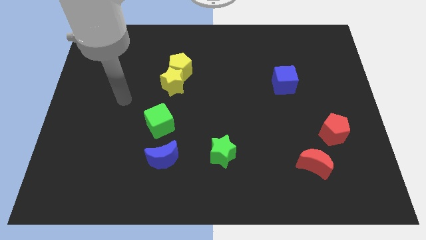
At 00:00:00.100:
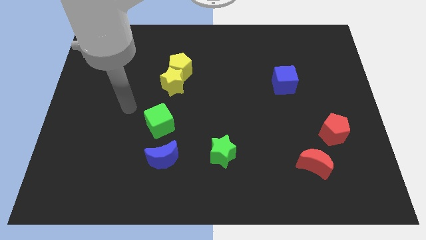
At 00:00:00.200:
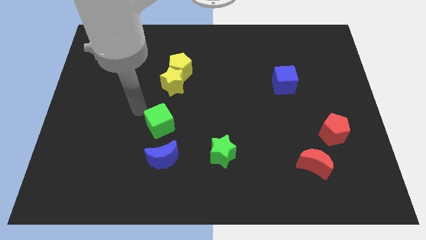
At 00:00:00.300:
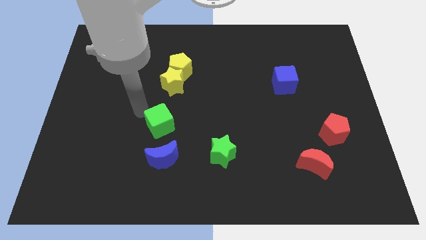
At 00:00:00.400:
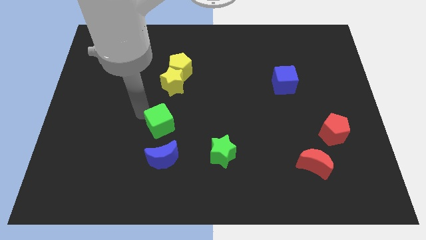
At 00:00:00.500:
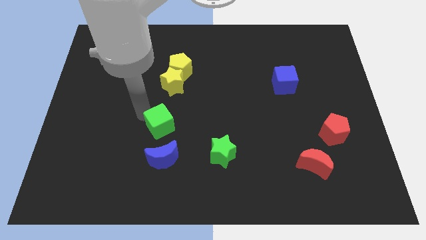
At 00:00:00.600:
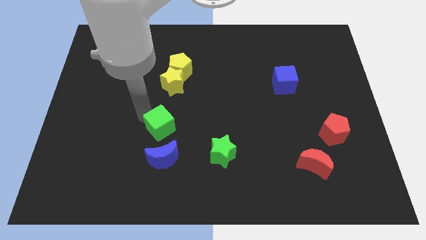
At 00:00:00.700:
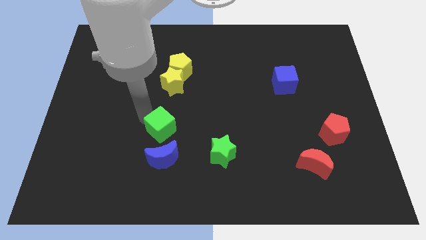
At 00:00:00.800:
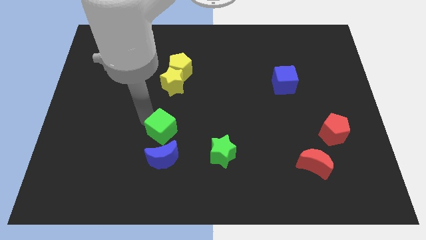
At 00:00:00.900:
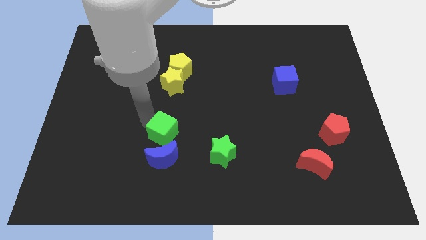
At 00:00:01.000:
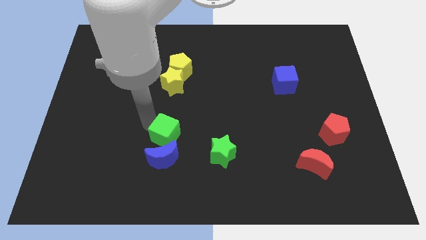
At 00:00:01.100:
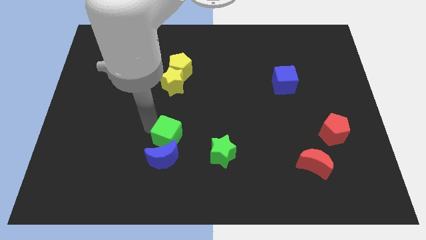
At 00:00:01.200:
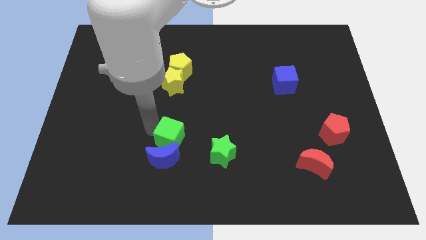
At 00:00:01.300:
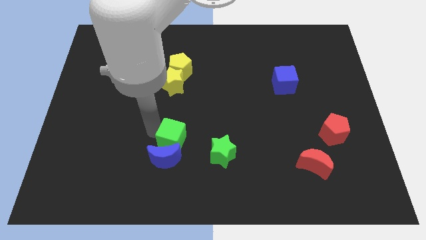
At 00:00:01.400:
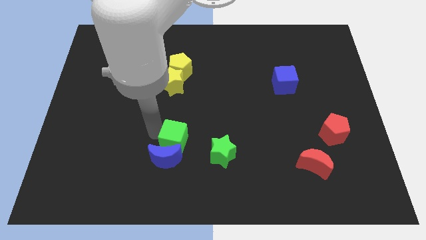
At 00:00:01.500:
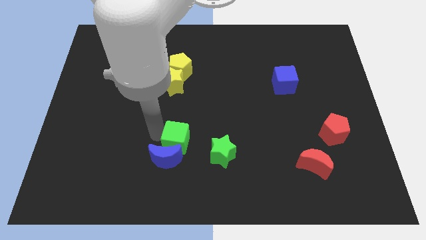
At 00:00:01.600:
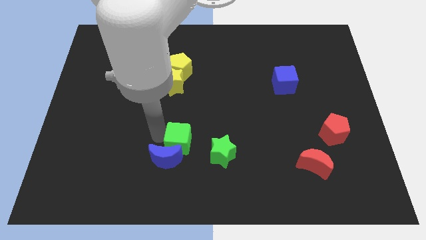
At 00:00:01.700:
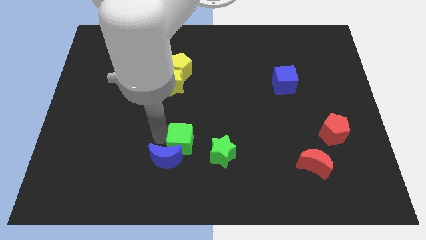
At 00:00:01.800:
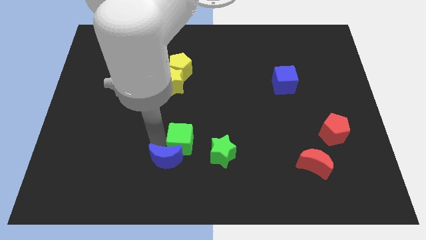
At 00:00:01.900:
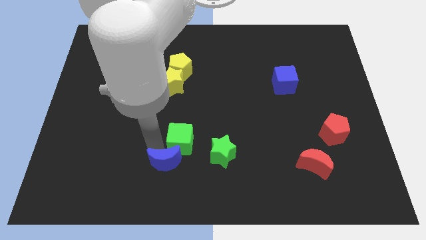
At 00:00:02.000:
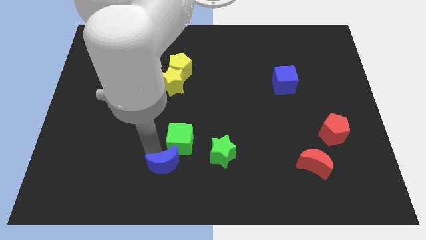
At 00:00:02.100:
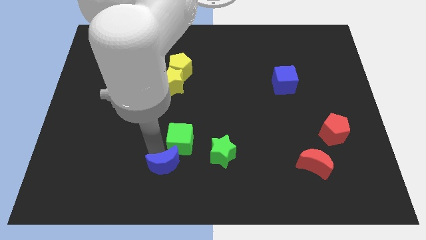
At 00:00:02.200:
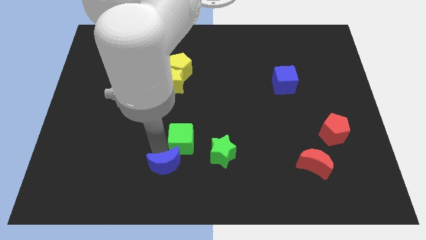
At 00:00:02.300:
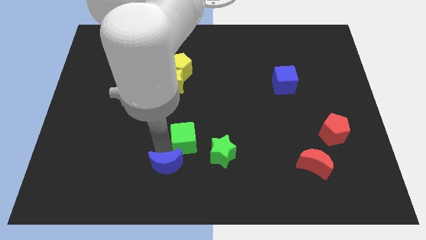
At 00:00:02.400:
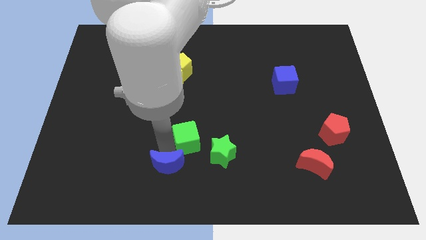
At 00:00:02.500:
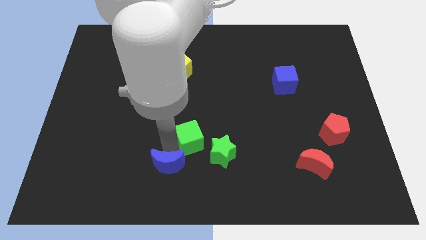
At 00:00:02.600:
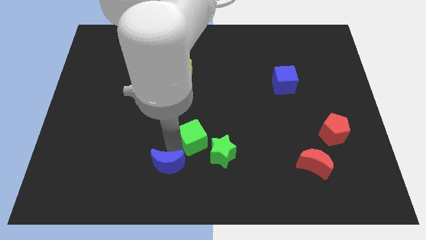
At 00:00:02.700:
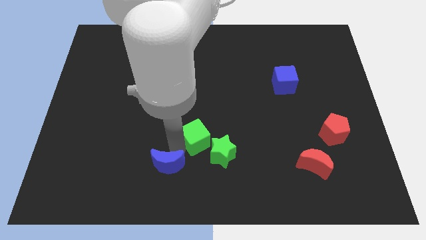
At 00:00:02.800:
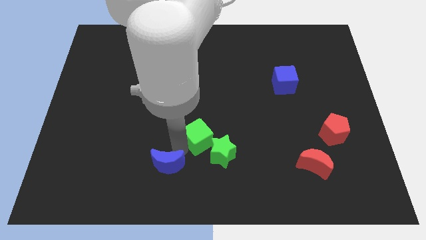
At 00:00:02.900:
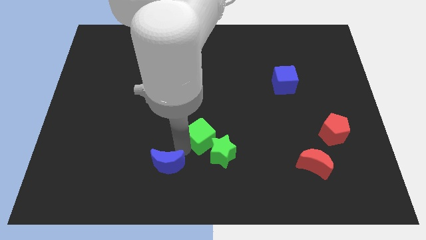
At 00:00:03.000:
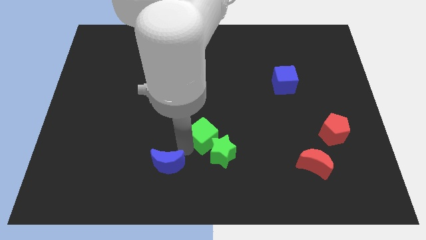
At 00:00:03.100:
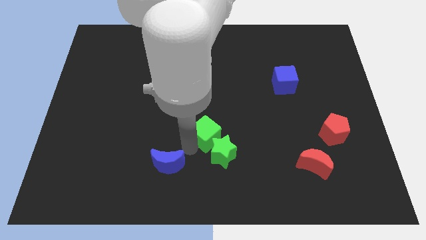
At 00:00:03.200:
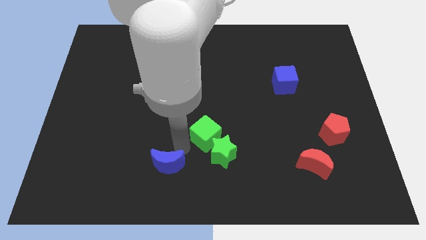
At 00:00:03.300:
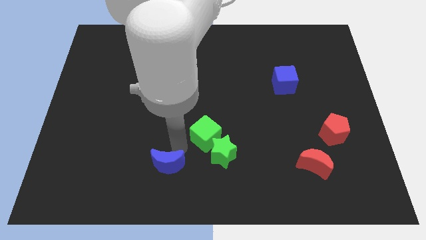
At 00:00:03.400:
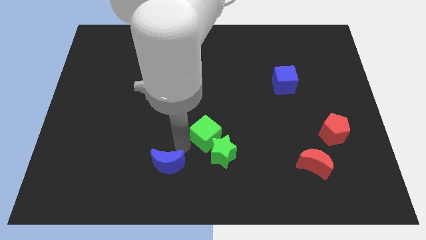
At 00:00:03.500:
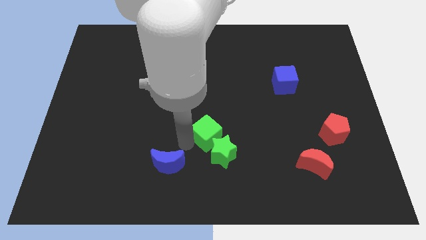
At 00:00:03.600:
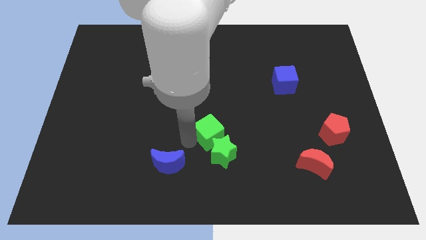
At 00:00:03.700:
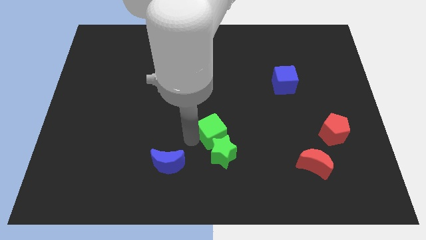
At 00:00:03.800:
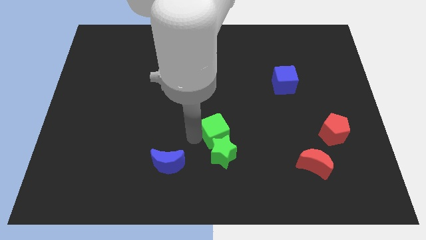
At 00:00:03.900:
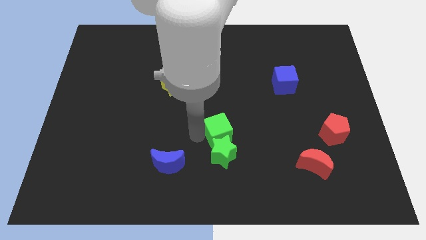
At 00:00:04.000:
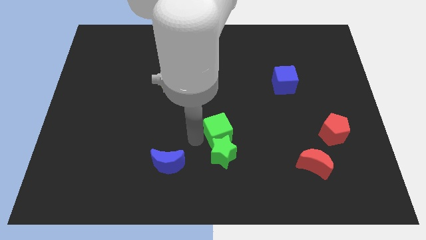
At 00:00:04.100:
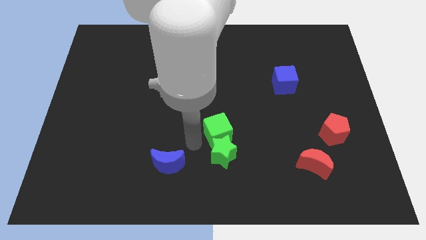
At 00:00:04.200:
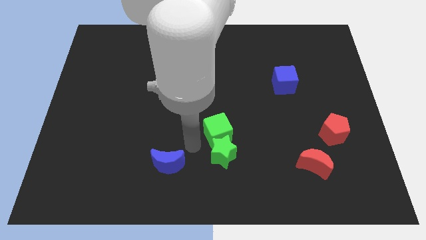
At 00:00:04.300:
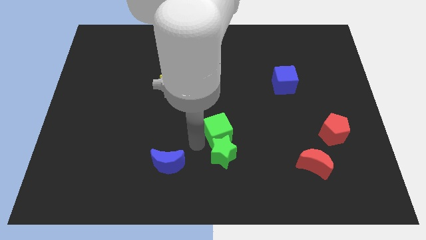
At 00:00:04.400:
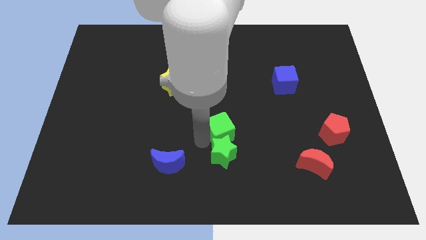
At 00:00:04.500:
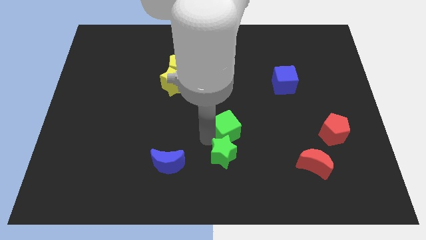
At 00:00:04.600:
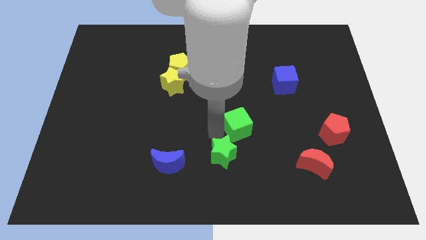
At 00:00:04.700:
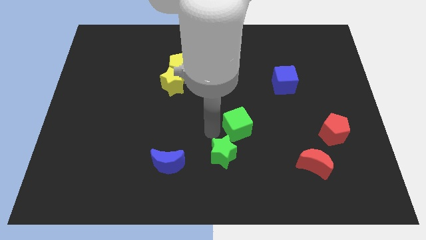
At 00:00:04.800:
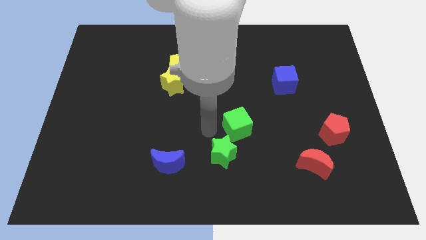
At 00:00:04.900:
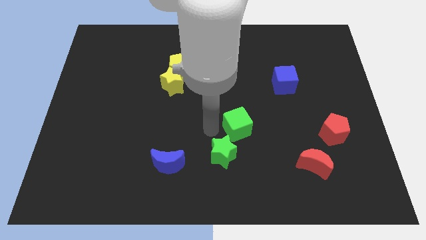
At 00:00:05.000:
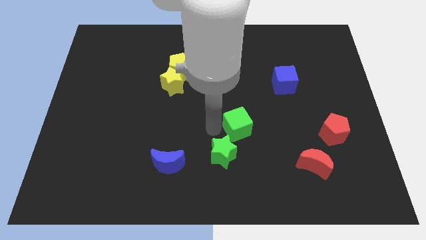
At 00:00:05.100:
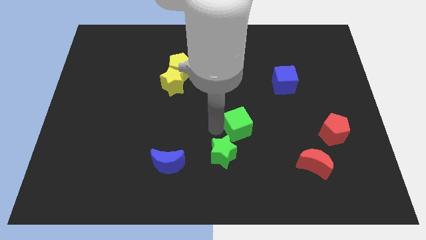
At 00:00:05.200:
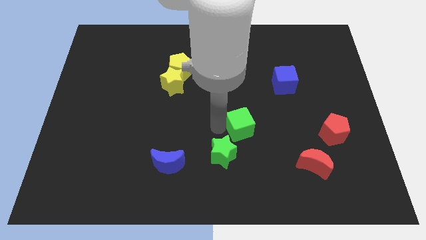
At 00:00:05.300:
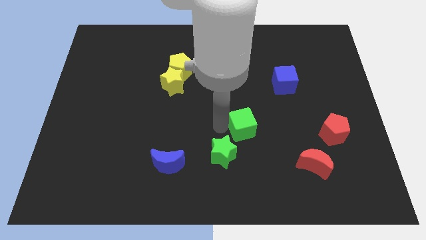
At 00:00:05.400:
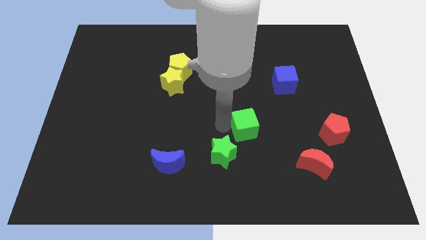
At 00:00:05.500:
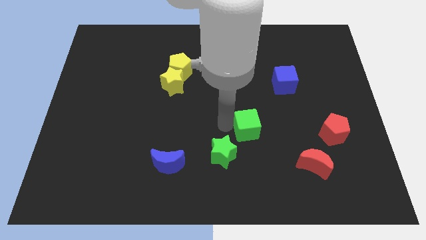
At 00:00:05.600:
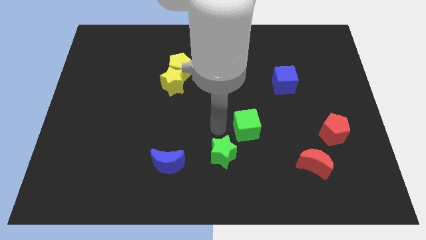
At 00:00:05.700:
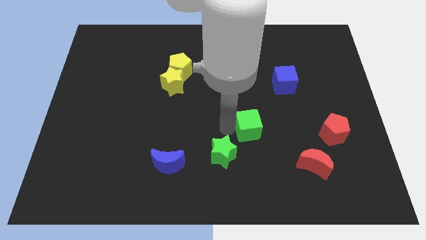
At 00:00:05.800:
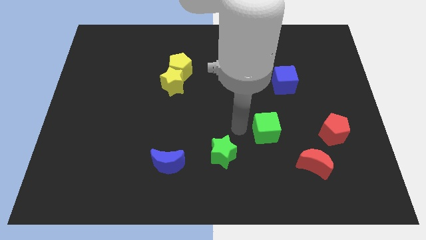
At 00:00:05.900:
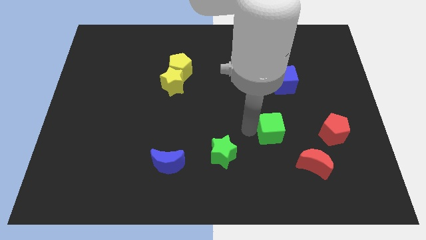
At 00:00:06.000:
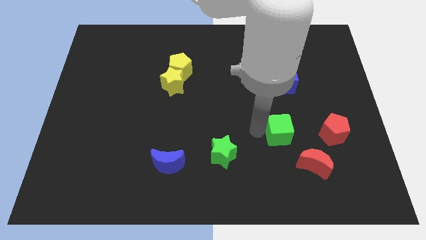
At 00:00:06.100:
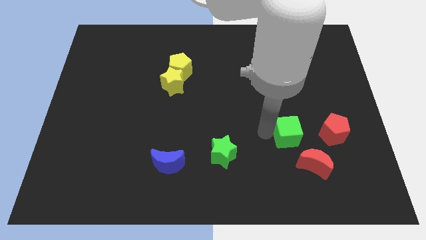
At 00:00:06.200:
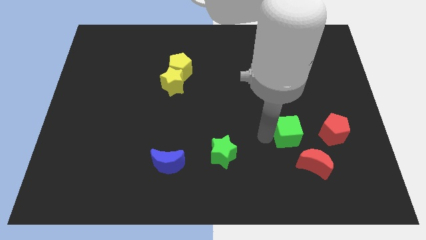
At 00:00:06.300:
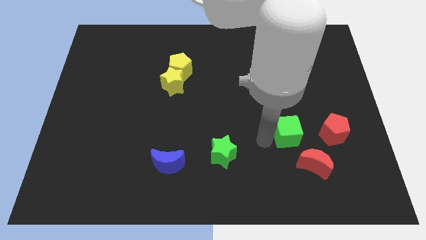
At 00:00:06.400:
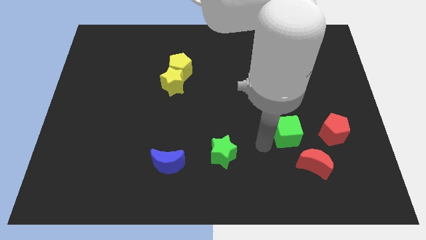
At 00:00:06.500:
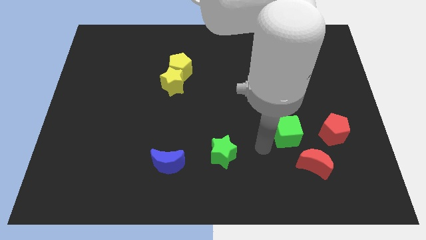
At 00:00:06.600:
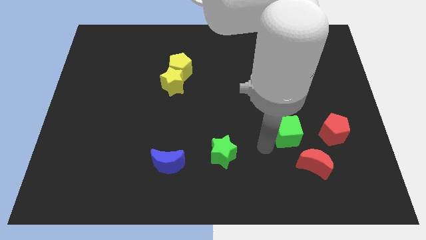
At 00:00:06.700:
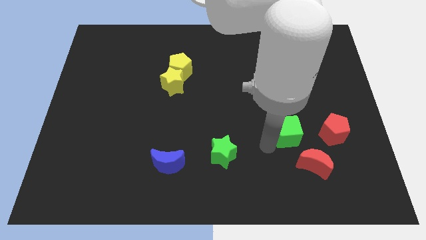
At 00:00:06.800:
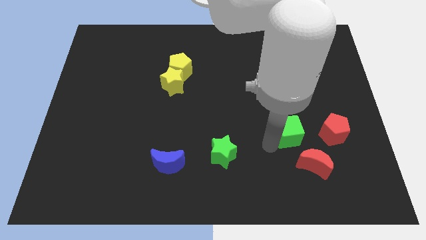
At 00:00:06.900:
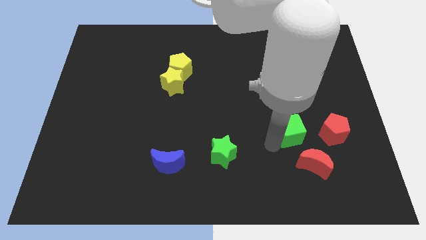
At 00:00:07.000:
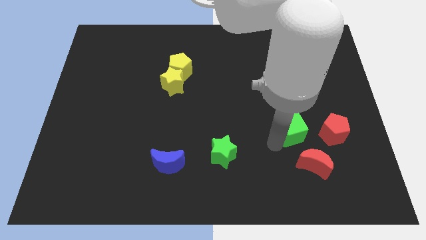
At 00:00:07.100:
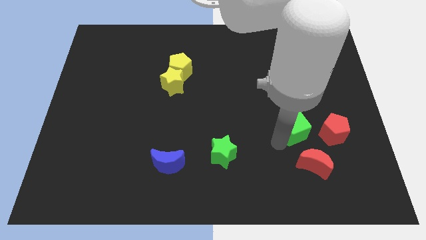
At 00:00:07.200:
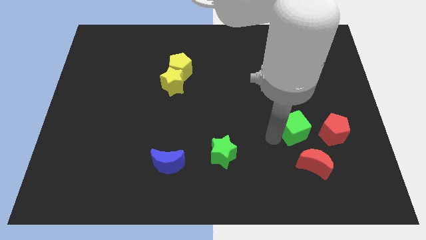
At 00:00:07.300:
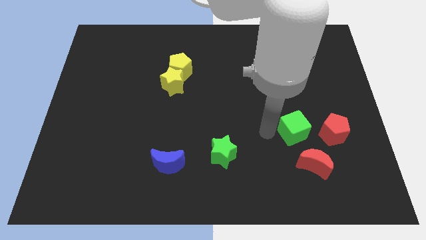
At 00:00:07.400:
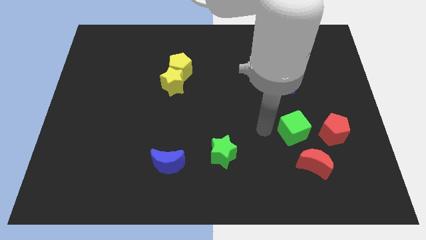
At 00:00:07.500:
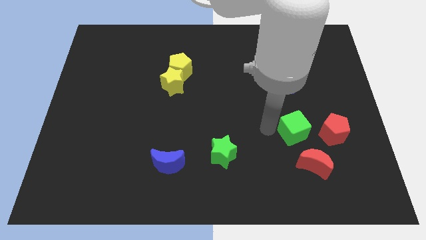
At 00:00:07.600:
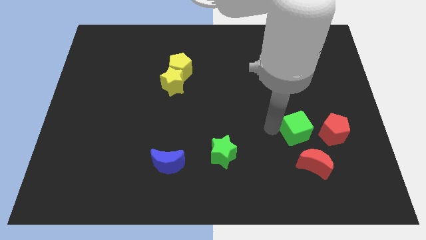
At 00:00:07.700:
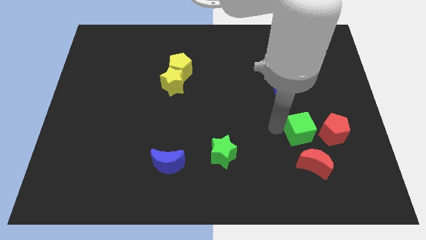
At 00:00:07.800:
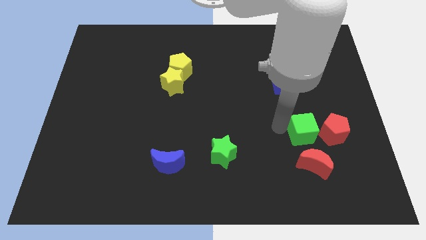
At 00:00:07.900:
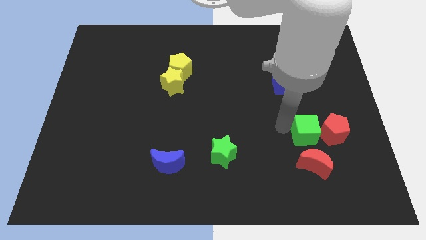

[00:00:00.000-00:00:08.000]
put the green cube next to the red pentagon
